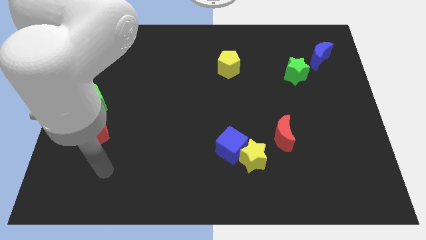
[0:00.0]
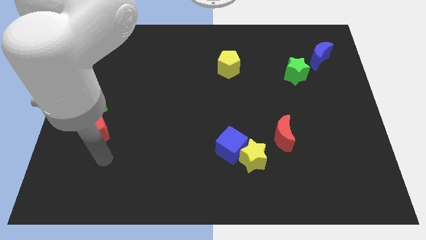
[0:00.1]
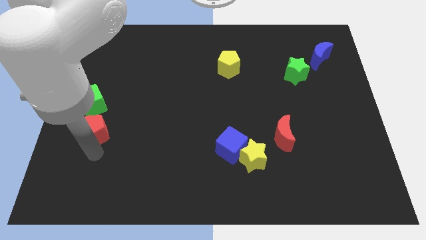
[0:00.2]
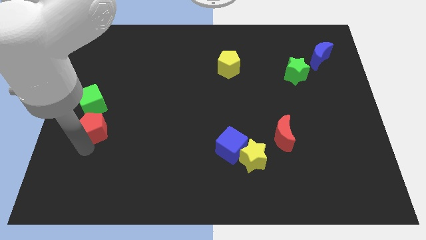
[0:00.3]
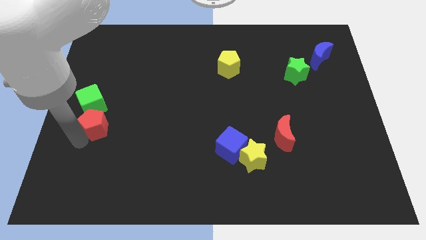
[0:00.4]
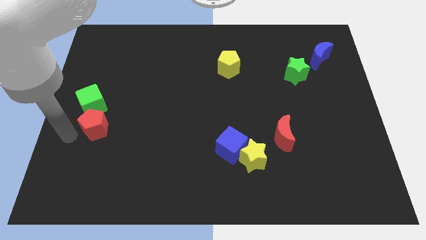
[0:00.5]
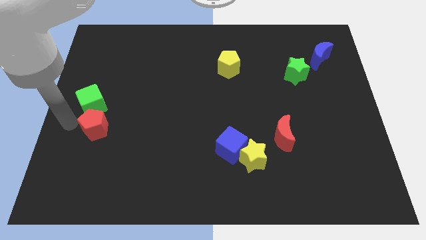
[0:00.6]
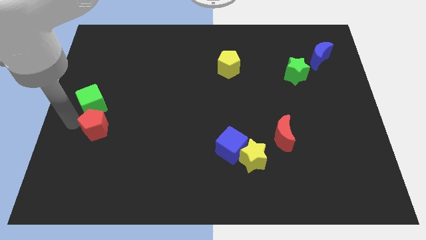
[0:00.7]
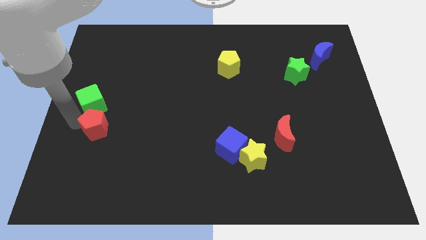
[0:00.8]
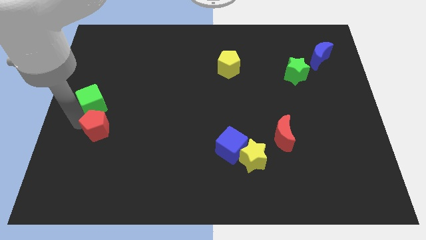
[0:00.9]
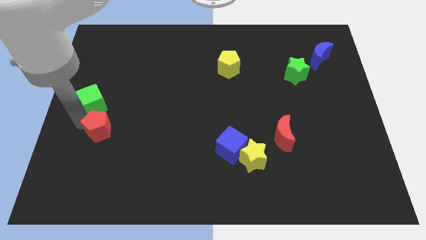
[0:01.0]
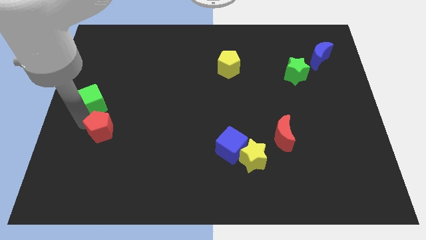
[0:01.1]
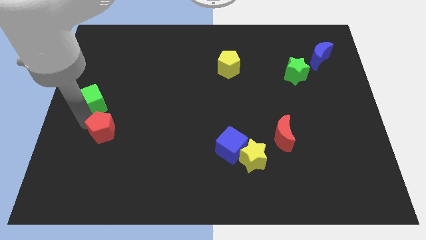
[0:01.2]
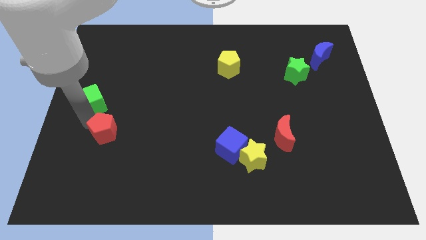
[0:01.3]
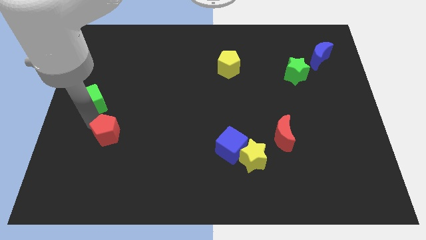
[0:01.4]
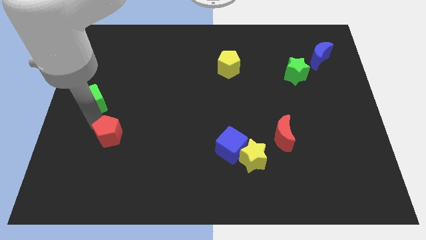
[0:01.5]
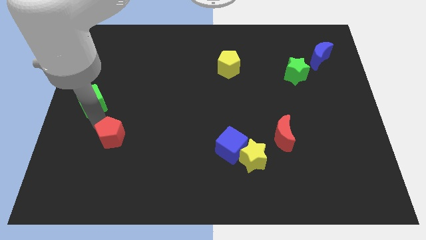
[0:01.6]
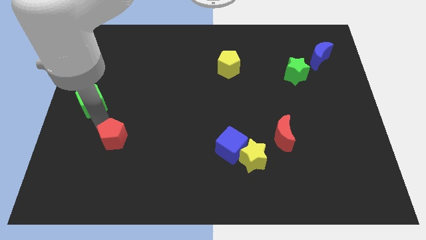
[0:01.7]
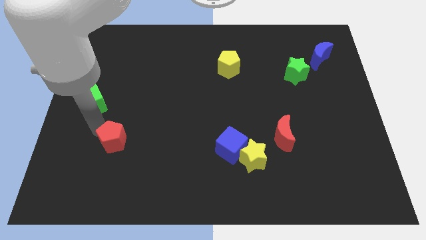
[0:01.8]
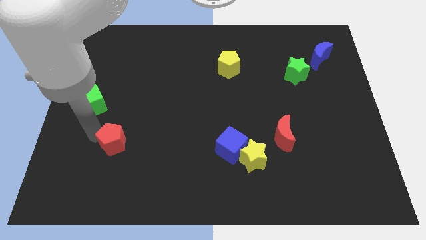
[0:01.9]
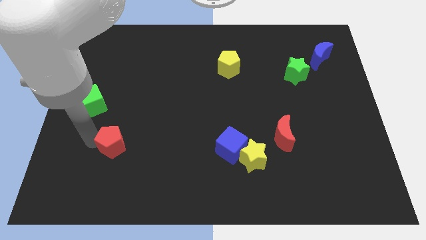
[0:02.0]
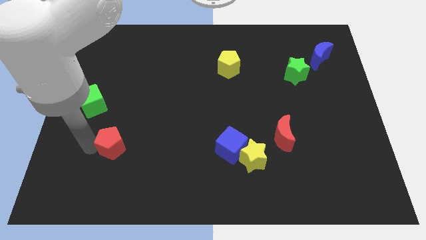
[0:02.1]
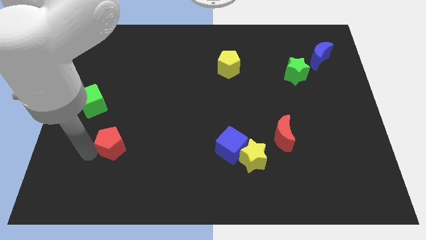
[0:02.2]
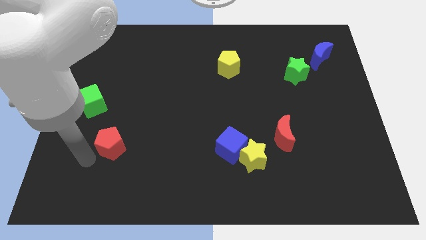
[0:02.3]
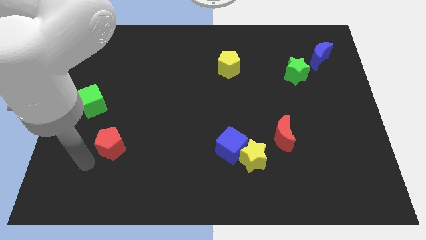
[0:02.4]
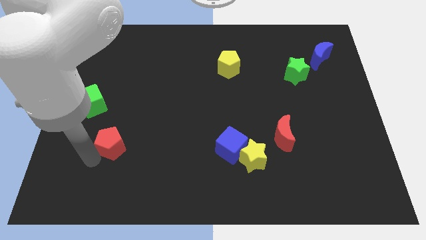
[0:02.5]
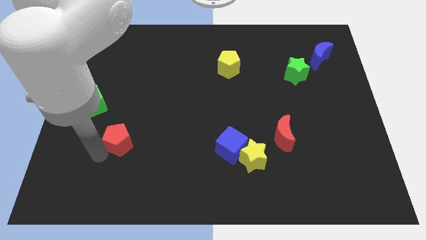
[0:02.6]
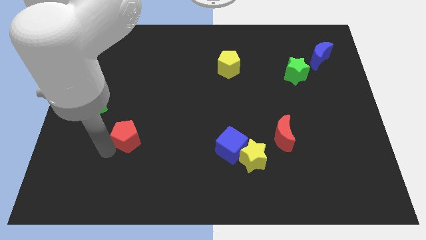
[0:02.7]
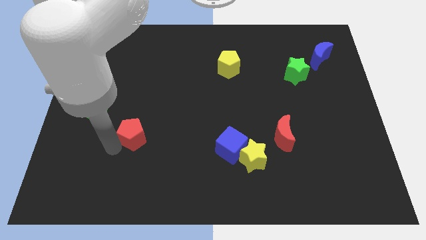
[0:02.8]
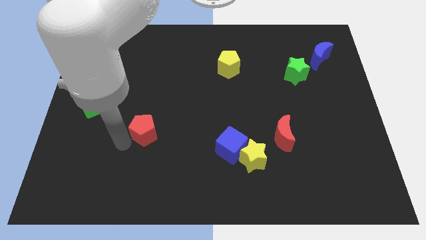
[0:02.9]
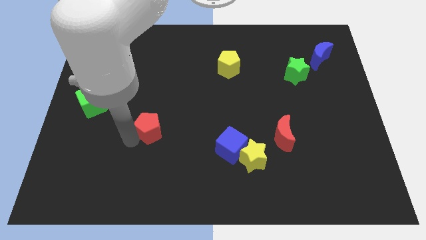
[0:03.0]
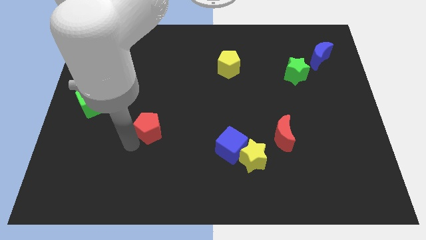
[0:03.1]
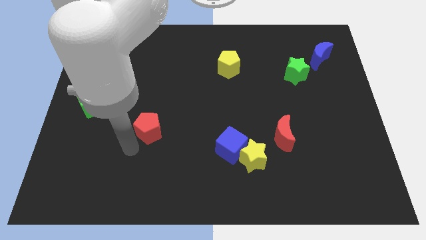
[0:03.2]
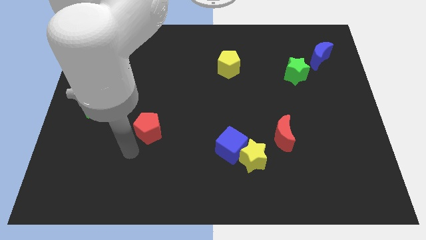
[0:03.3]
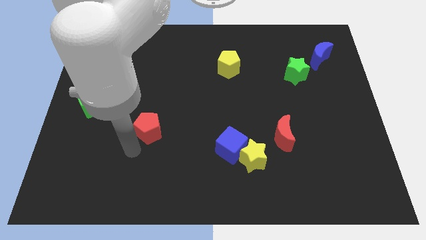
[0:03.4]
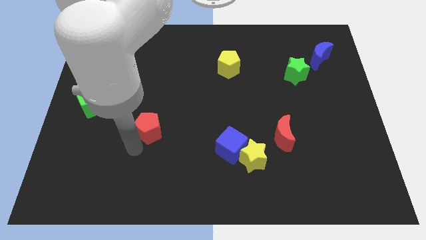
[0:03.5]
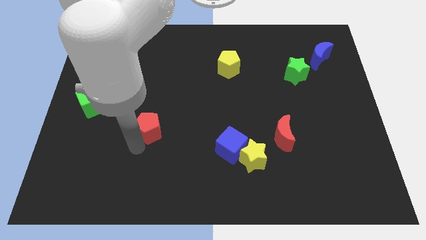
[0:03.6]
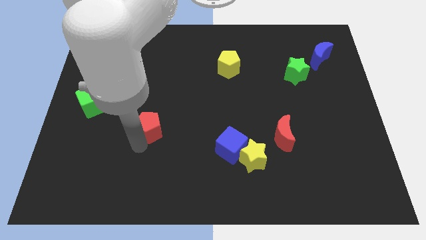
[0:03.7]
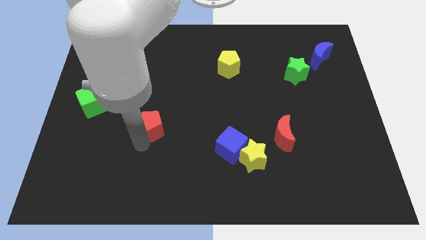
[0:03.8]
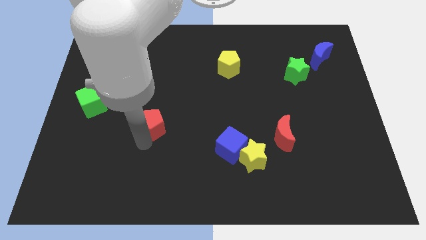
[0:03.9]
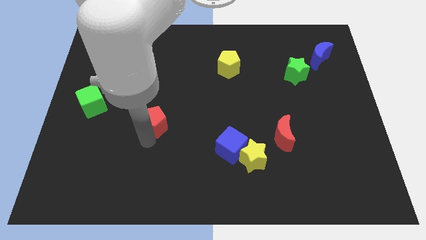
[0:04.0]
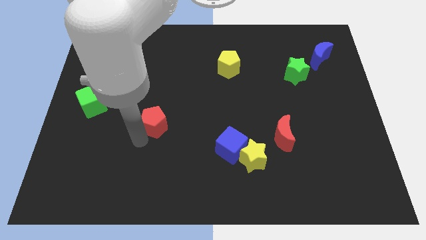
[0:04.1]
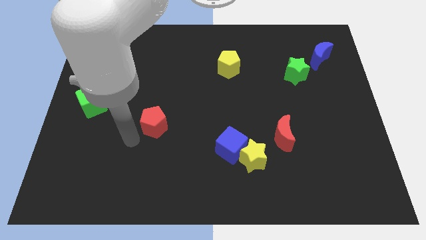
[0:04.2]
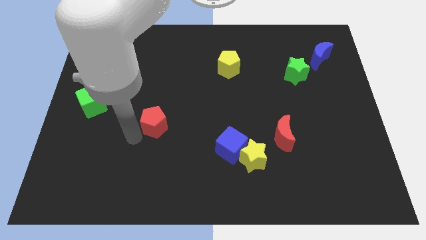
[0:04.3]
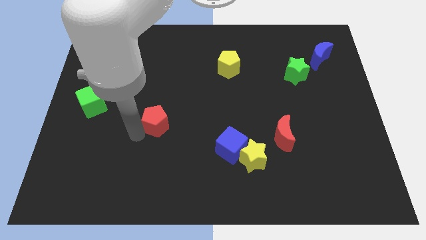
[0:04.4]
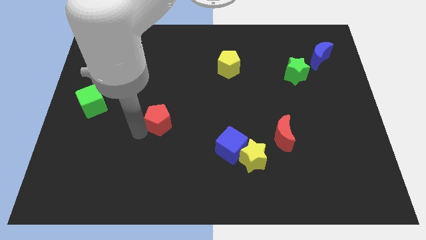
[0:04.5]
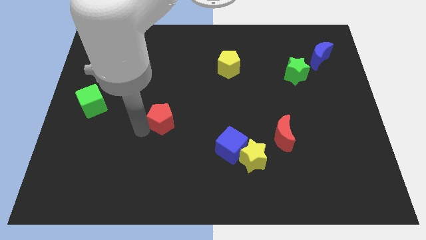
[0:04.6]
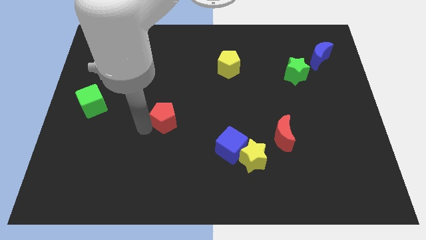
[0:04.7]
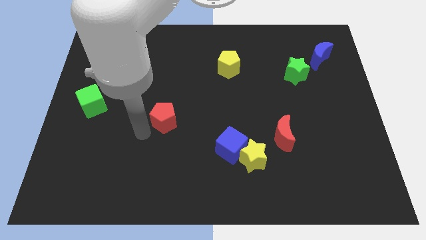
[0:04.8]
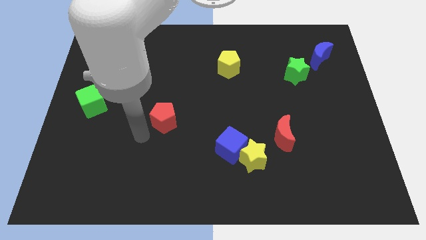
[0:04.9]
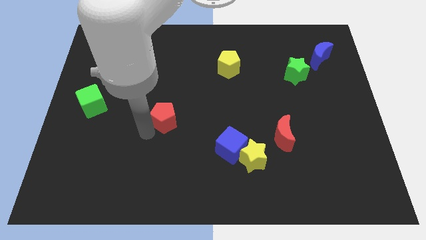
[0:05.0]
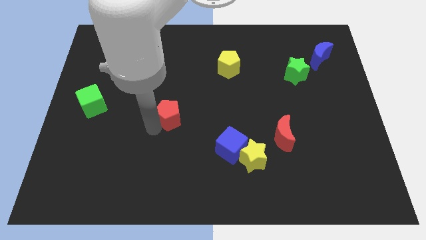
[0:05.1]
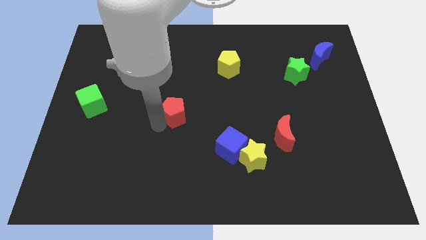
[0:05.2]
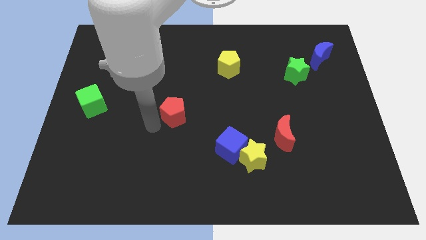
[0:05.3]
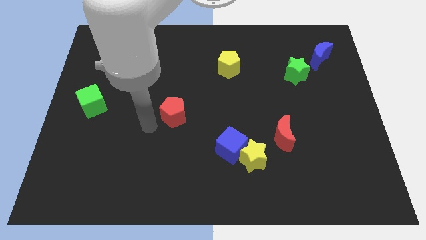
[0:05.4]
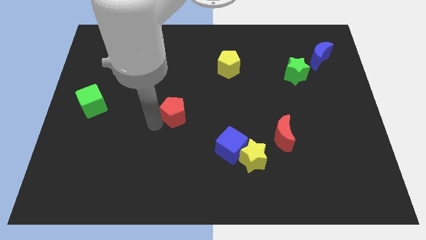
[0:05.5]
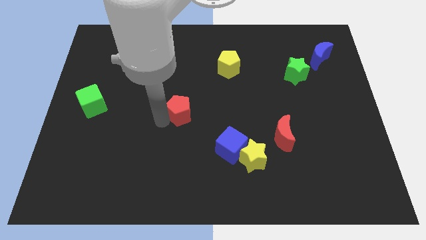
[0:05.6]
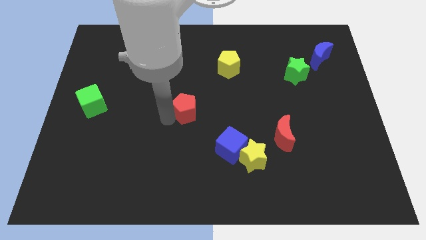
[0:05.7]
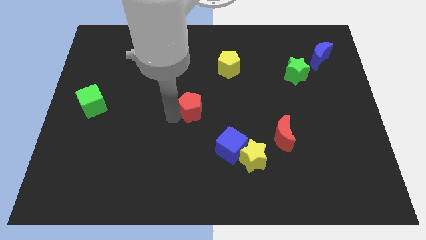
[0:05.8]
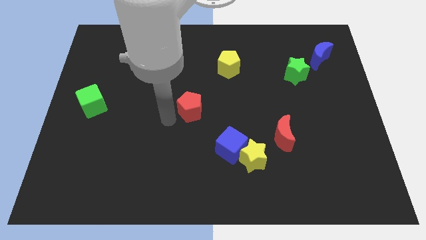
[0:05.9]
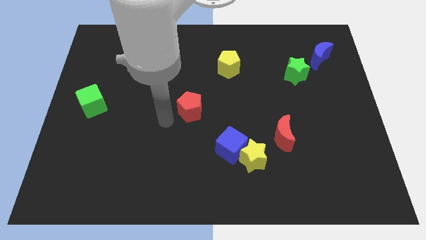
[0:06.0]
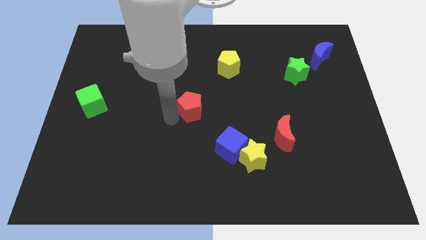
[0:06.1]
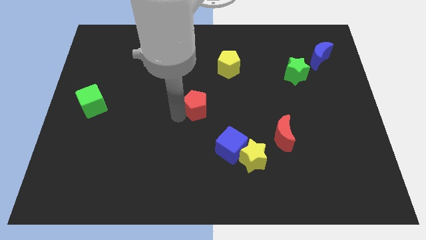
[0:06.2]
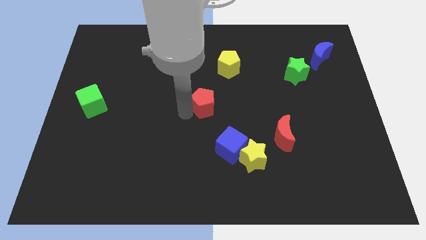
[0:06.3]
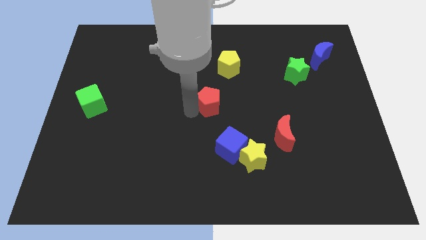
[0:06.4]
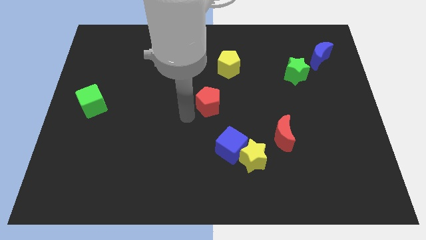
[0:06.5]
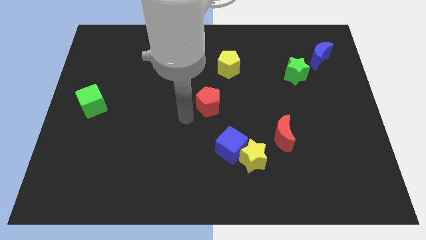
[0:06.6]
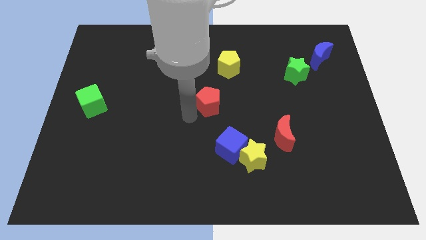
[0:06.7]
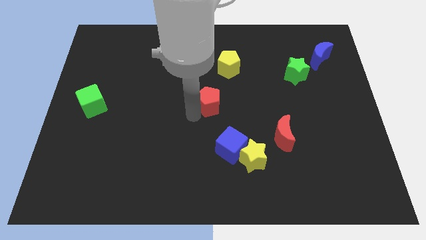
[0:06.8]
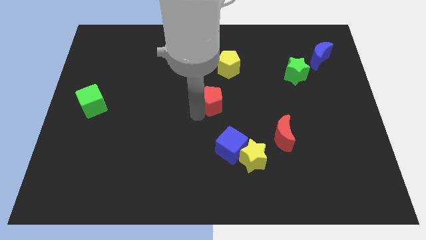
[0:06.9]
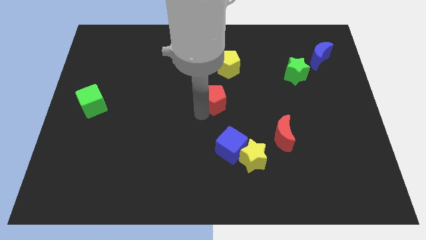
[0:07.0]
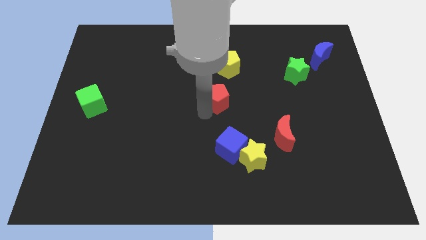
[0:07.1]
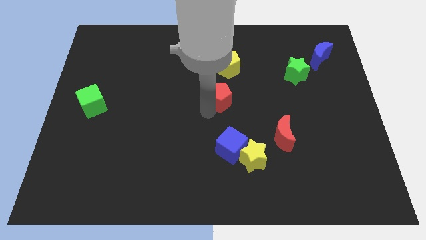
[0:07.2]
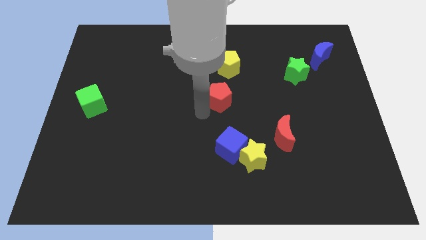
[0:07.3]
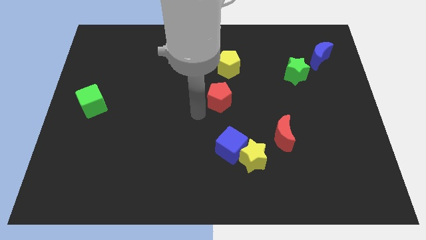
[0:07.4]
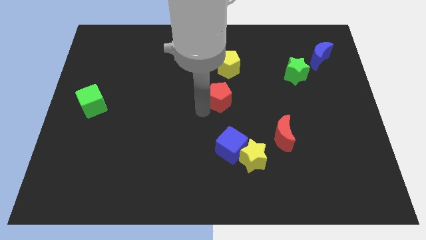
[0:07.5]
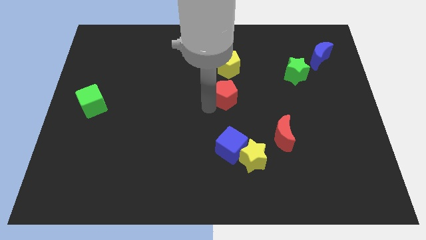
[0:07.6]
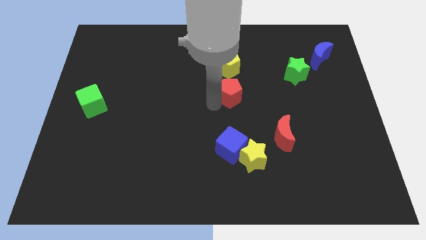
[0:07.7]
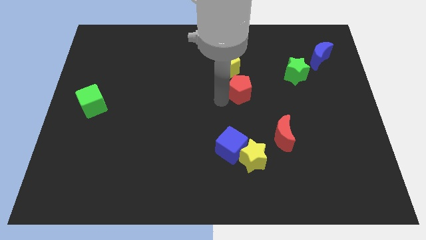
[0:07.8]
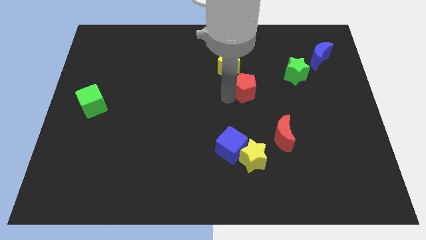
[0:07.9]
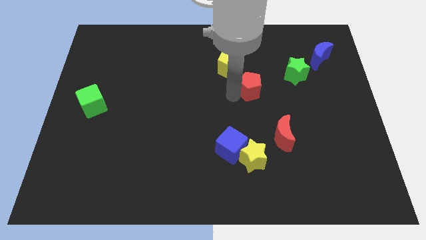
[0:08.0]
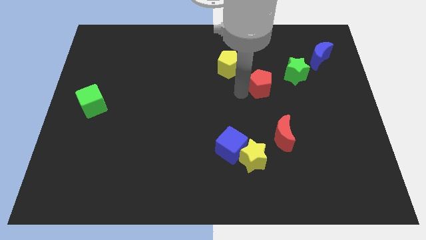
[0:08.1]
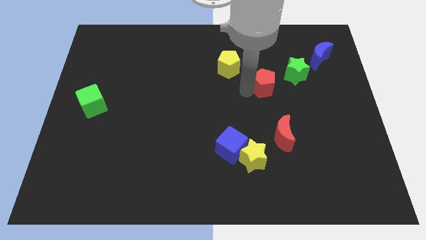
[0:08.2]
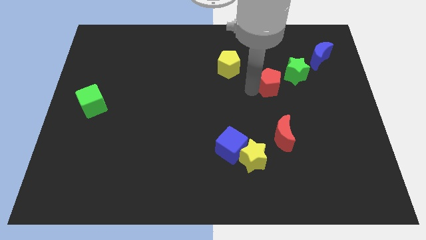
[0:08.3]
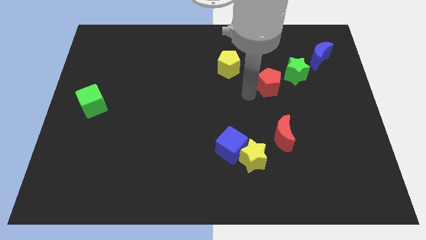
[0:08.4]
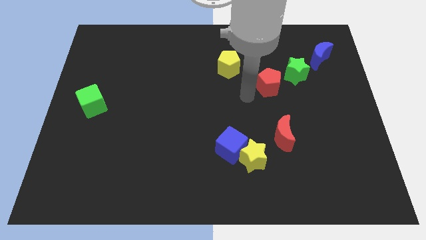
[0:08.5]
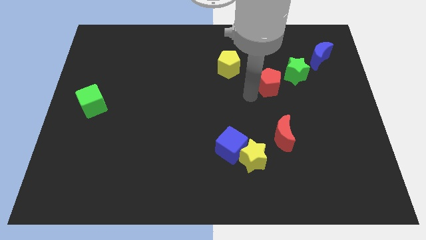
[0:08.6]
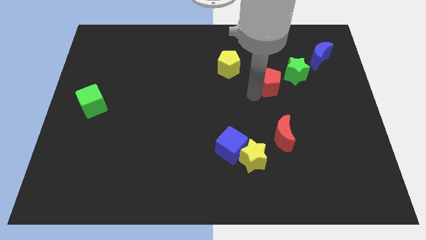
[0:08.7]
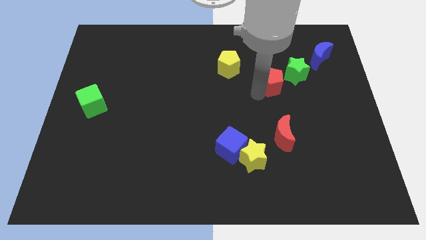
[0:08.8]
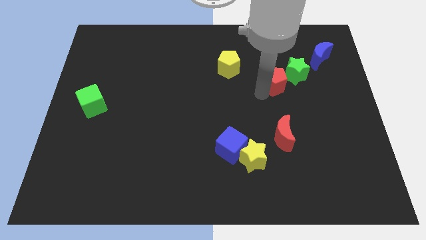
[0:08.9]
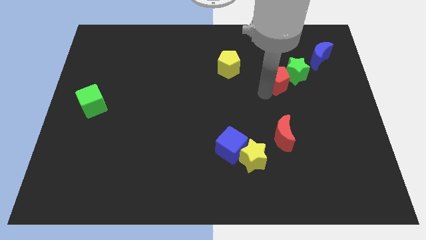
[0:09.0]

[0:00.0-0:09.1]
put the red pentagon towards the green star
